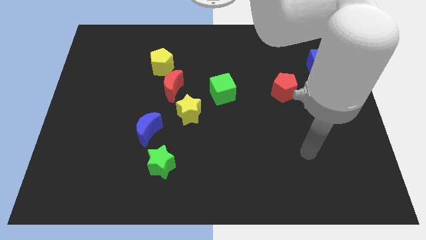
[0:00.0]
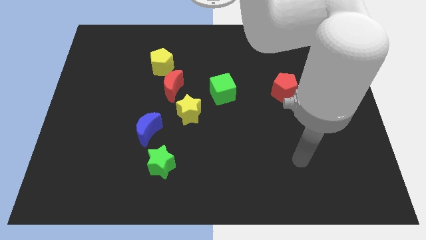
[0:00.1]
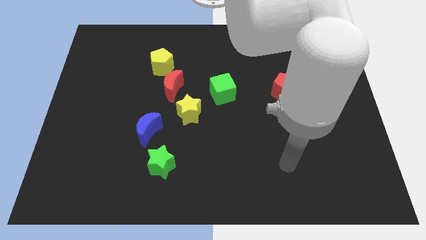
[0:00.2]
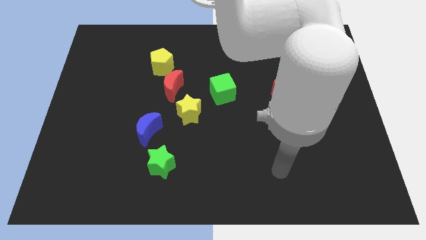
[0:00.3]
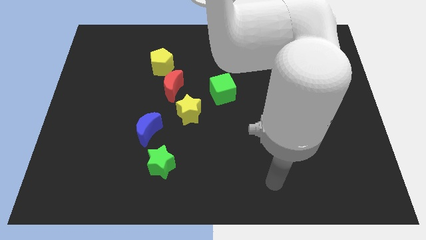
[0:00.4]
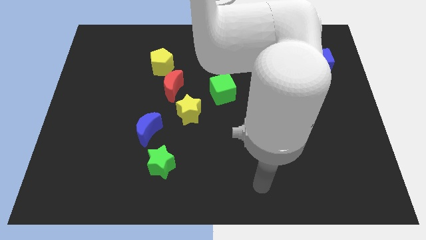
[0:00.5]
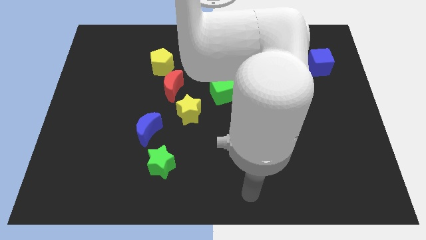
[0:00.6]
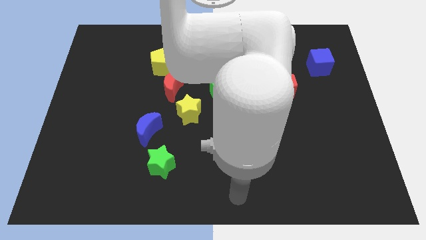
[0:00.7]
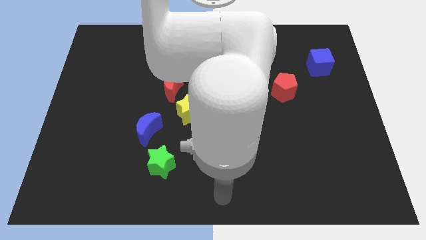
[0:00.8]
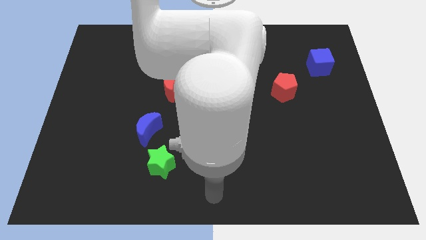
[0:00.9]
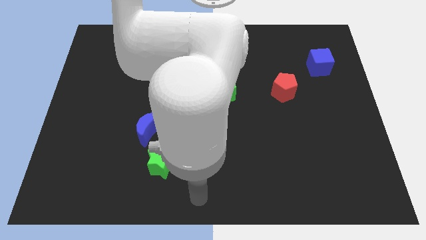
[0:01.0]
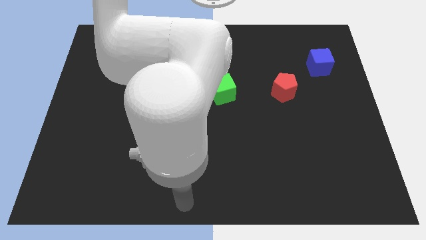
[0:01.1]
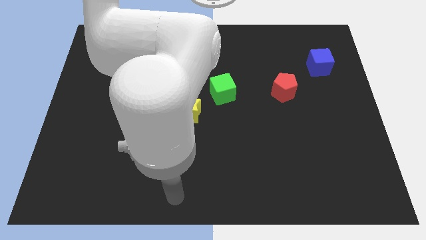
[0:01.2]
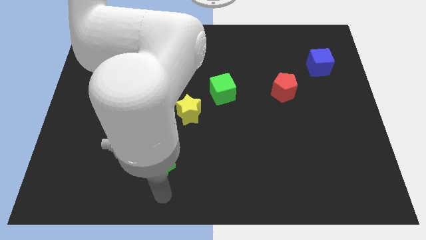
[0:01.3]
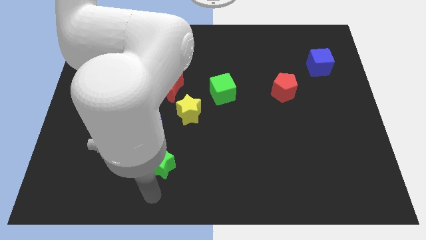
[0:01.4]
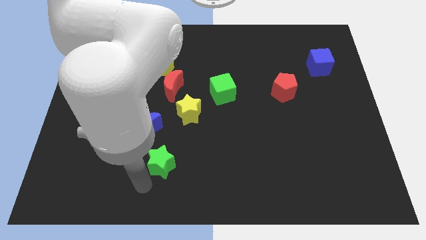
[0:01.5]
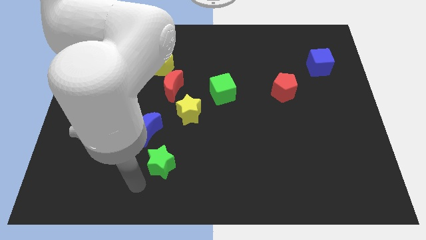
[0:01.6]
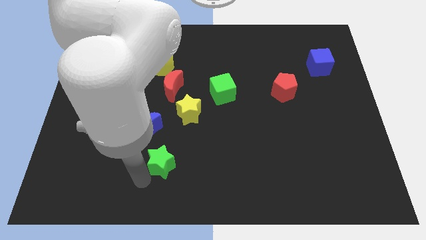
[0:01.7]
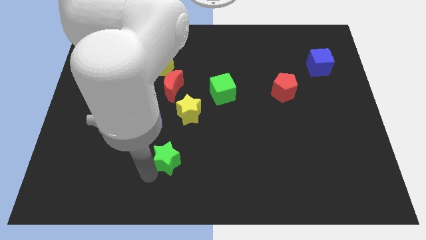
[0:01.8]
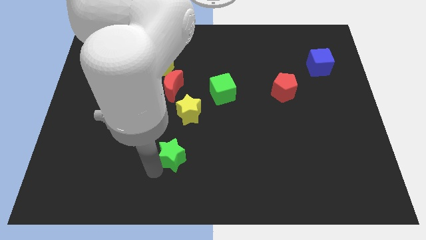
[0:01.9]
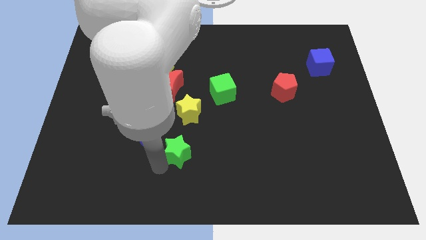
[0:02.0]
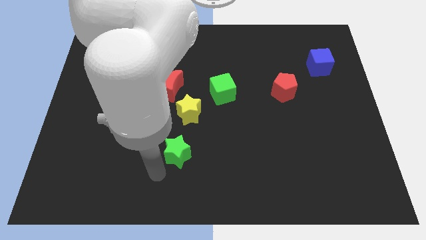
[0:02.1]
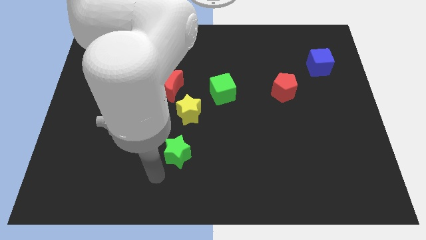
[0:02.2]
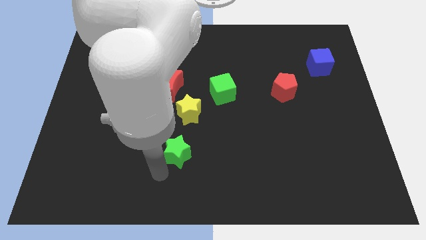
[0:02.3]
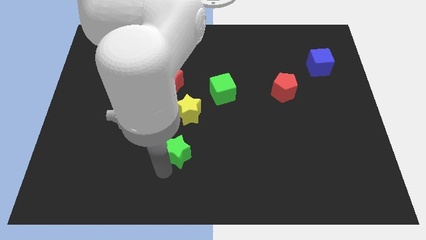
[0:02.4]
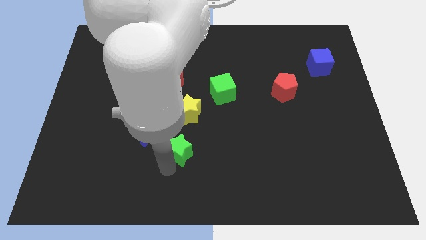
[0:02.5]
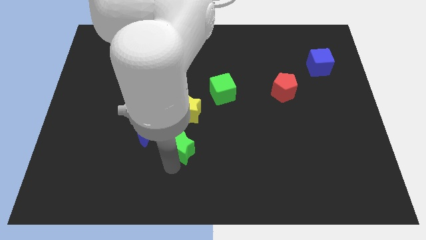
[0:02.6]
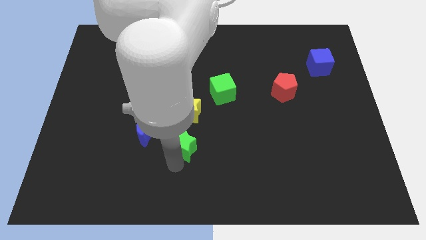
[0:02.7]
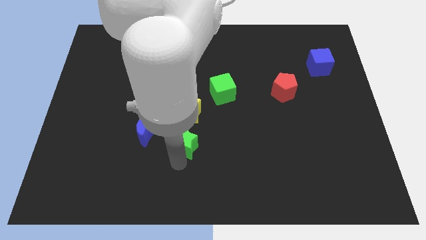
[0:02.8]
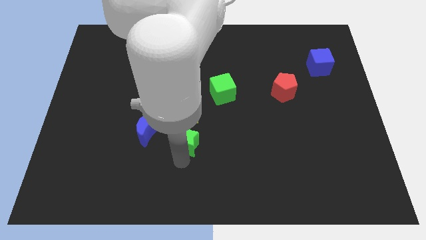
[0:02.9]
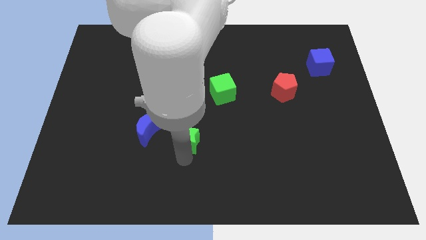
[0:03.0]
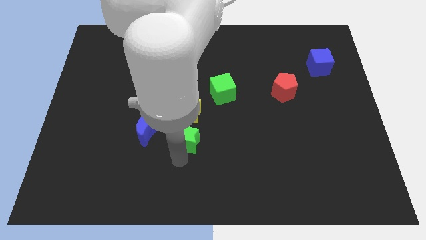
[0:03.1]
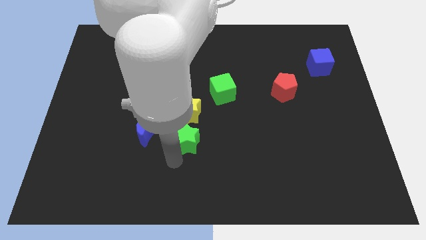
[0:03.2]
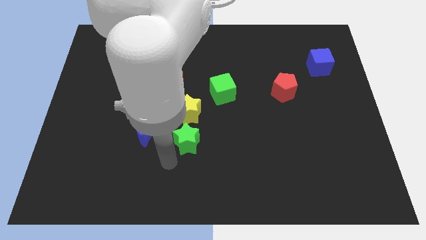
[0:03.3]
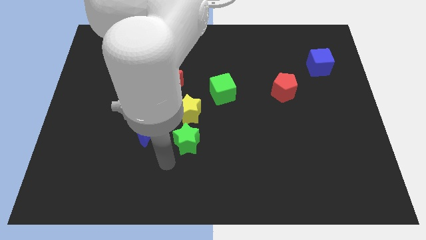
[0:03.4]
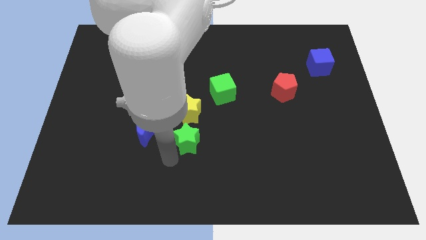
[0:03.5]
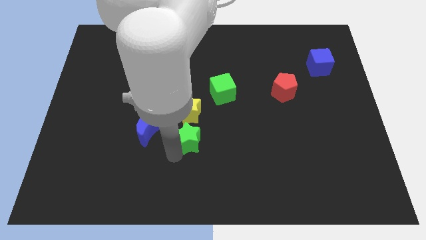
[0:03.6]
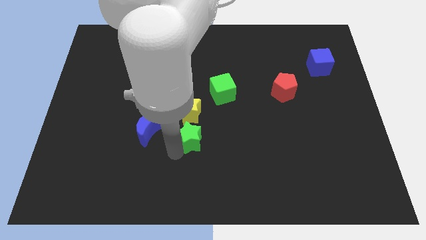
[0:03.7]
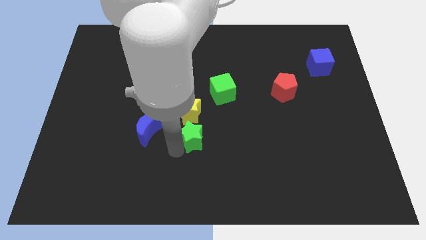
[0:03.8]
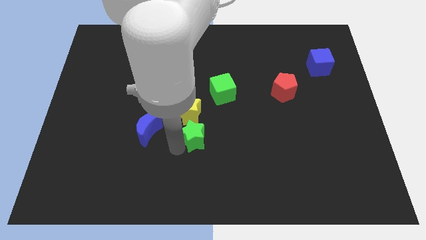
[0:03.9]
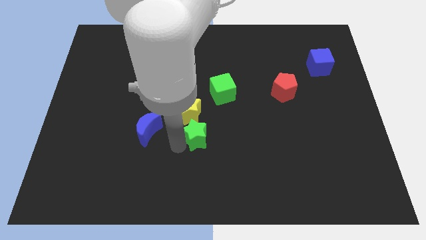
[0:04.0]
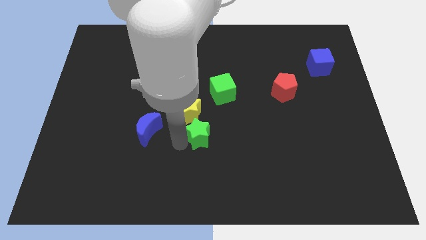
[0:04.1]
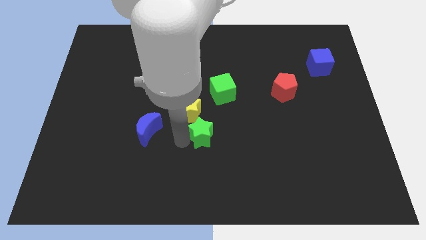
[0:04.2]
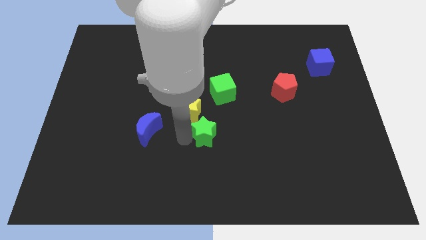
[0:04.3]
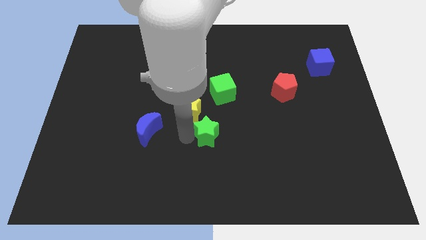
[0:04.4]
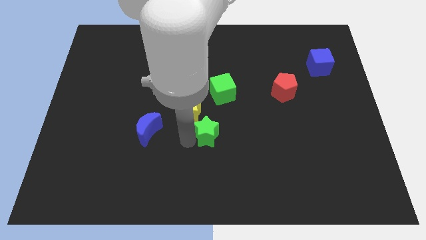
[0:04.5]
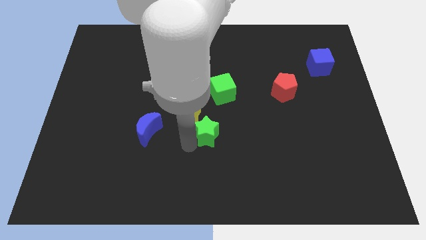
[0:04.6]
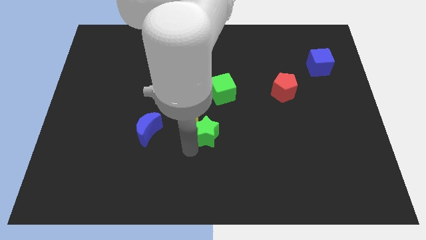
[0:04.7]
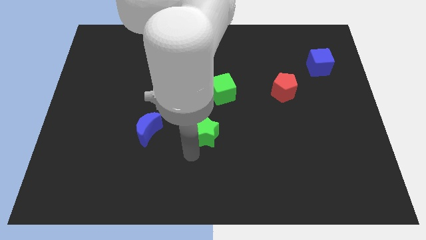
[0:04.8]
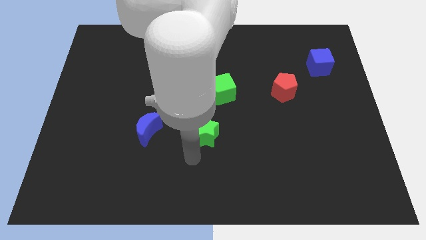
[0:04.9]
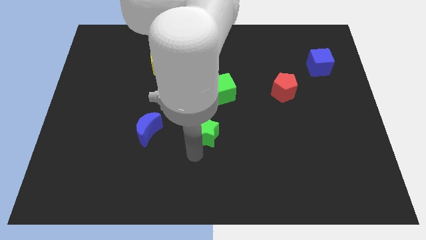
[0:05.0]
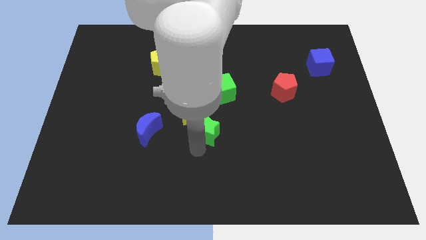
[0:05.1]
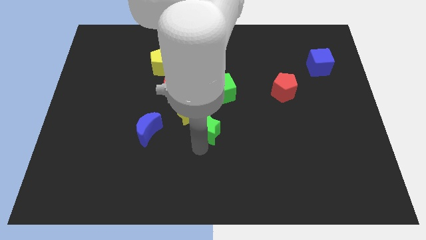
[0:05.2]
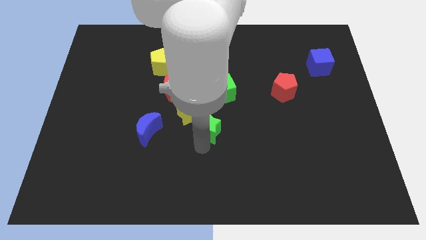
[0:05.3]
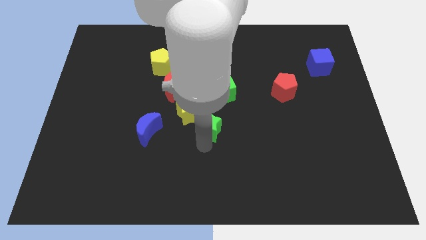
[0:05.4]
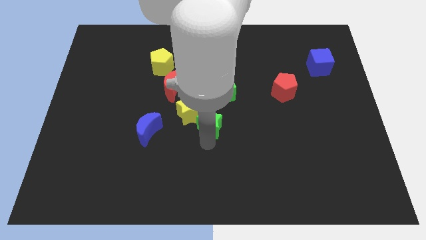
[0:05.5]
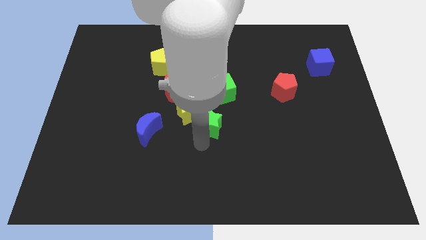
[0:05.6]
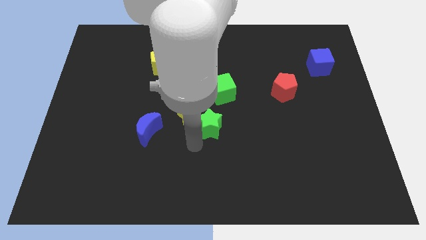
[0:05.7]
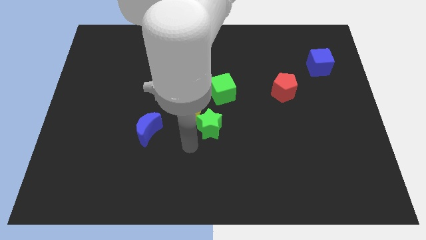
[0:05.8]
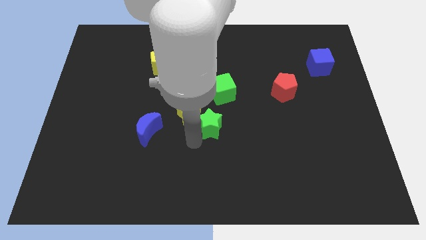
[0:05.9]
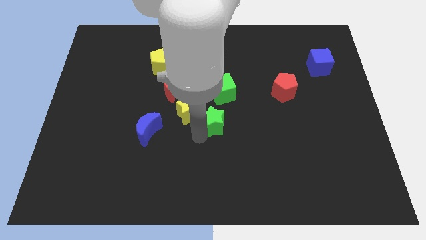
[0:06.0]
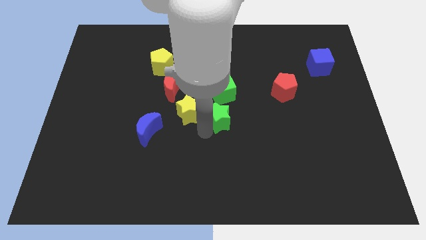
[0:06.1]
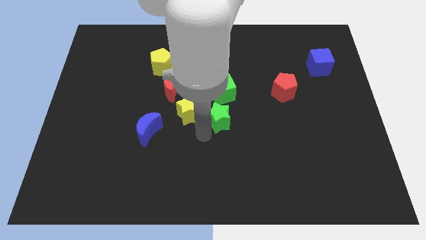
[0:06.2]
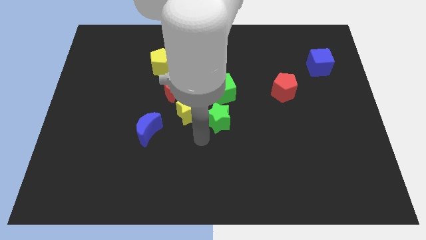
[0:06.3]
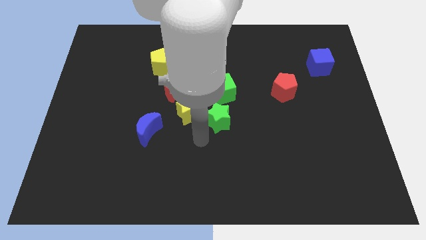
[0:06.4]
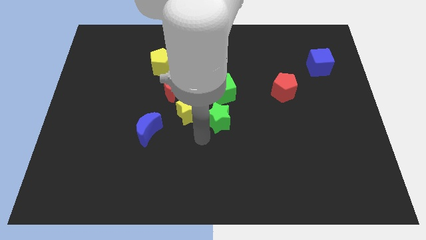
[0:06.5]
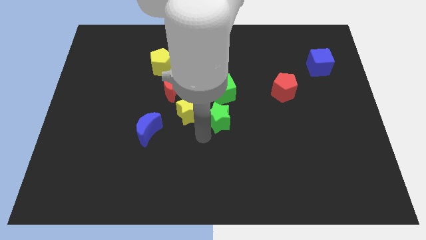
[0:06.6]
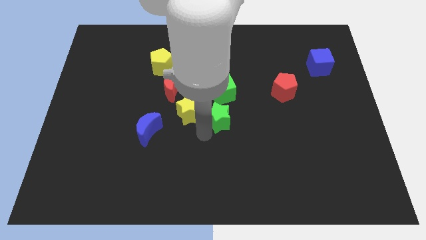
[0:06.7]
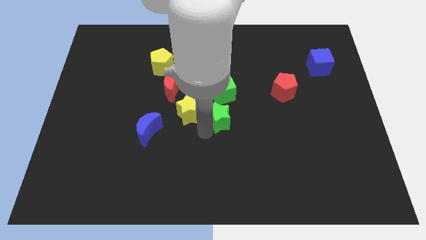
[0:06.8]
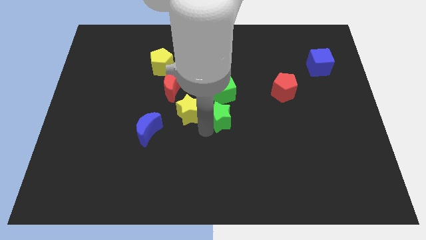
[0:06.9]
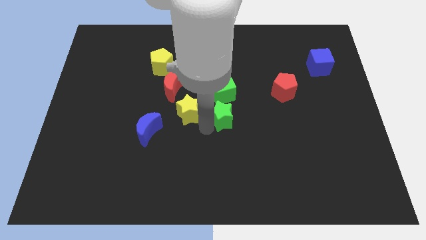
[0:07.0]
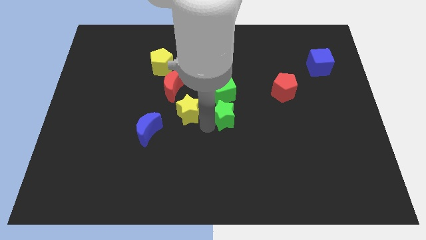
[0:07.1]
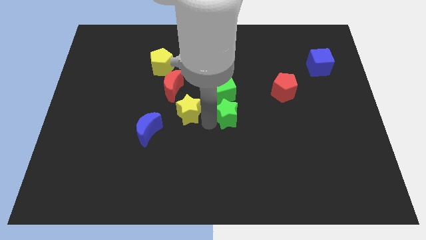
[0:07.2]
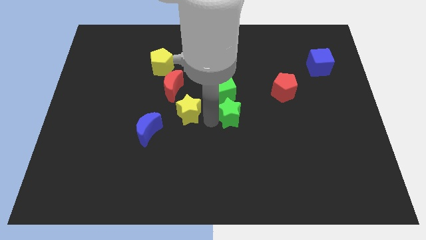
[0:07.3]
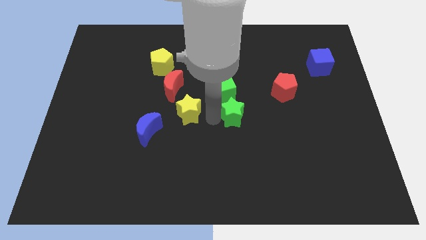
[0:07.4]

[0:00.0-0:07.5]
slide the green star up and right

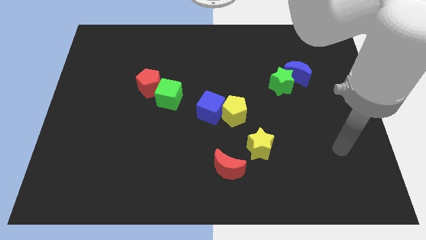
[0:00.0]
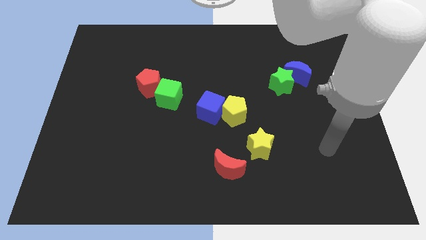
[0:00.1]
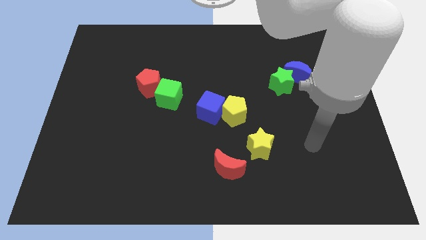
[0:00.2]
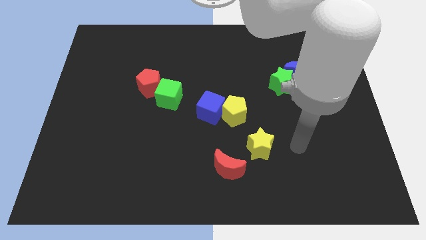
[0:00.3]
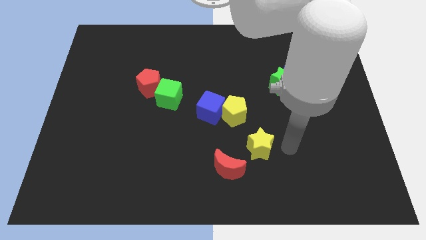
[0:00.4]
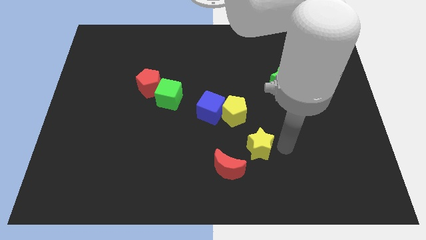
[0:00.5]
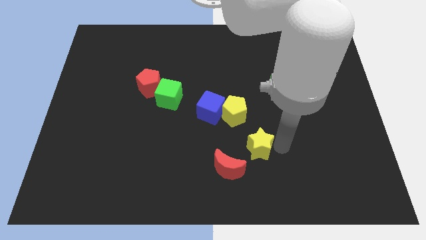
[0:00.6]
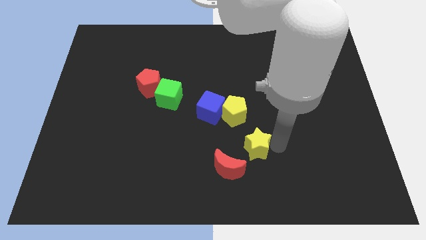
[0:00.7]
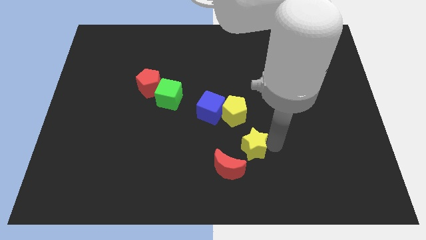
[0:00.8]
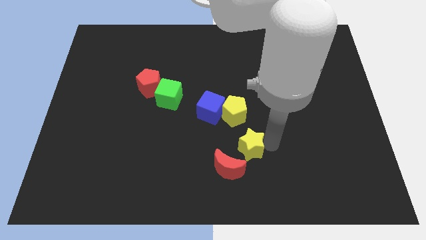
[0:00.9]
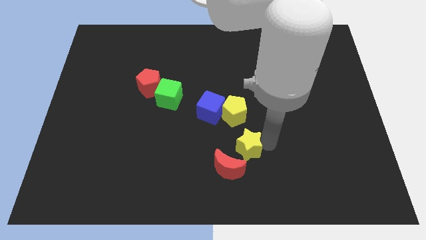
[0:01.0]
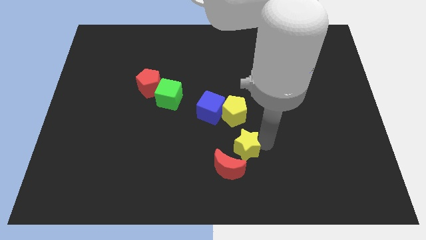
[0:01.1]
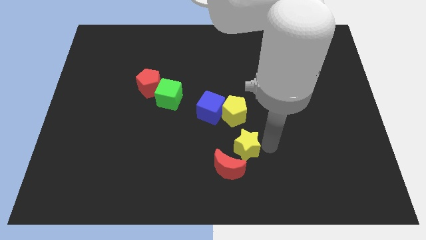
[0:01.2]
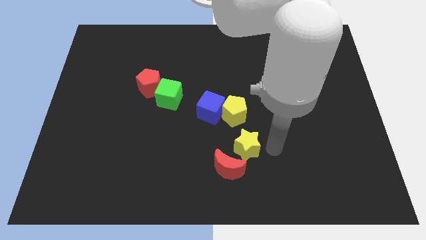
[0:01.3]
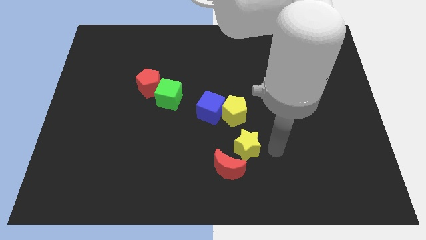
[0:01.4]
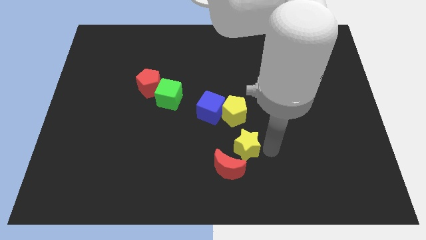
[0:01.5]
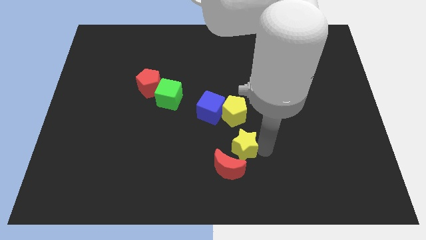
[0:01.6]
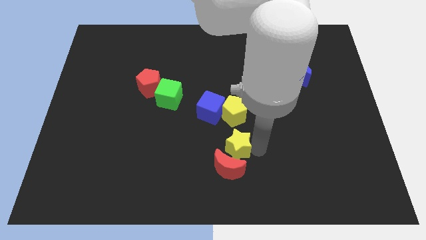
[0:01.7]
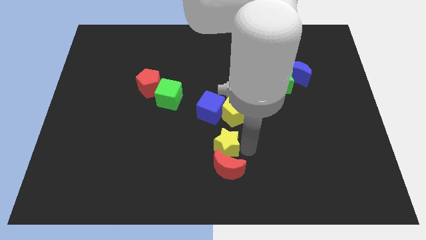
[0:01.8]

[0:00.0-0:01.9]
slightly move the yellow star to the left
